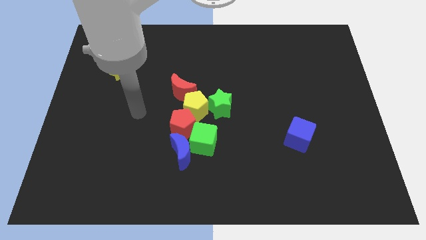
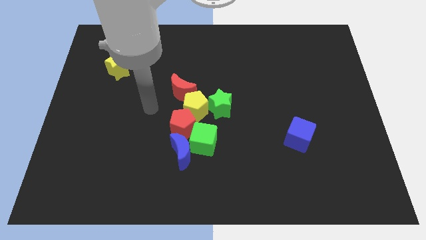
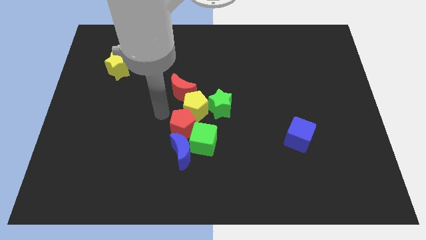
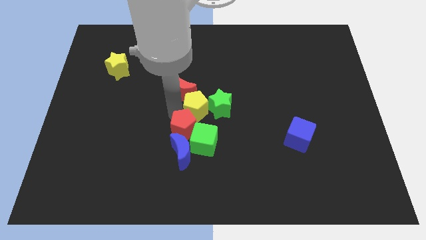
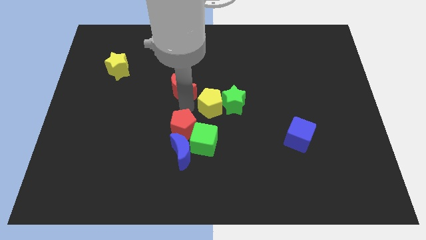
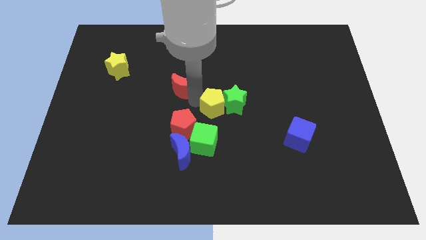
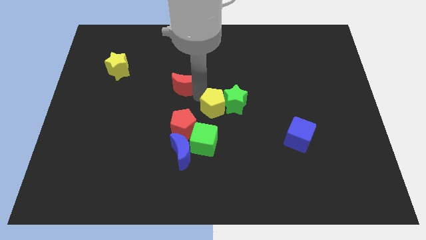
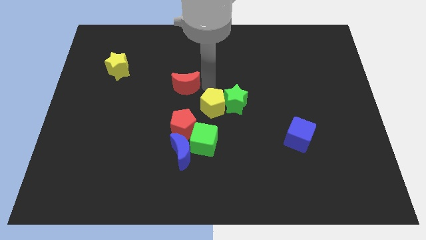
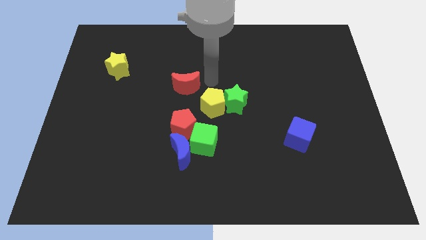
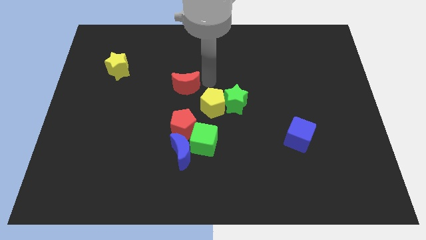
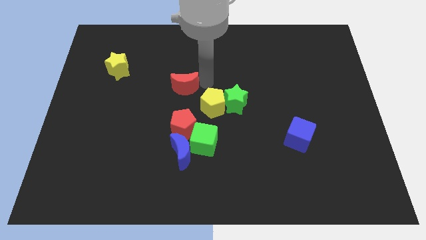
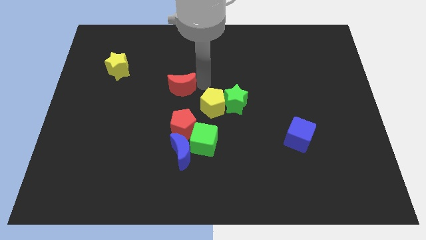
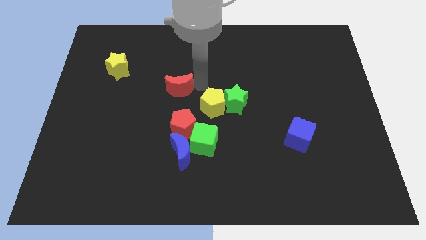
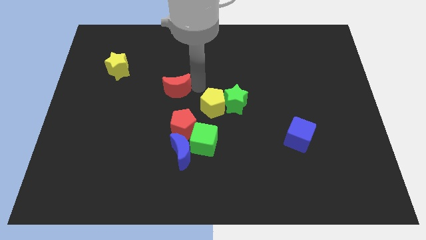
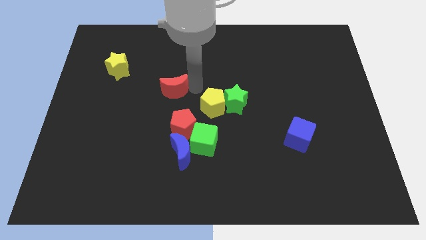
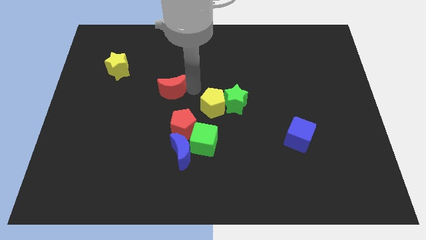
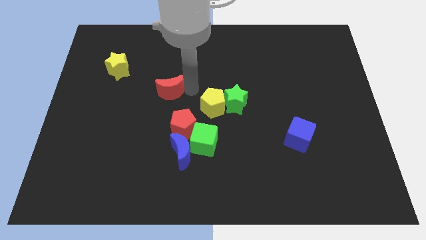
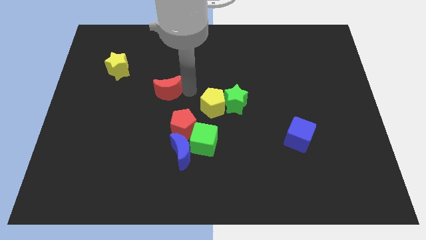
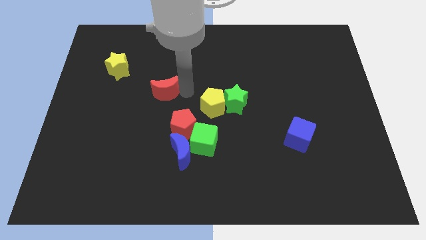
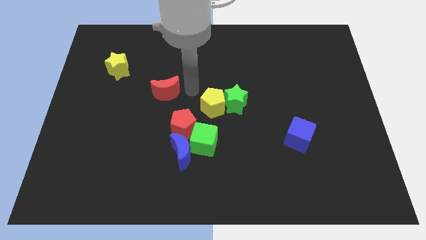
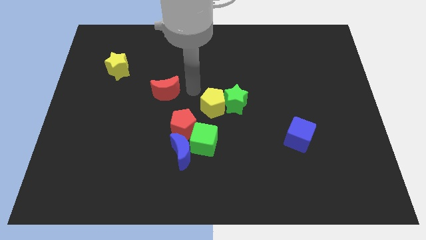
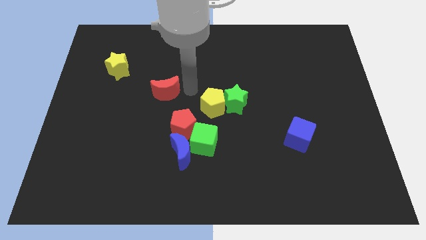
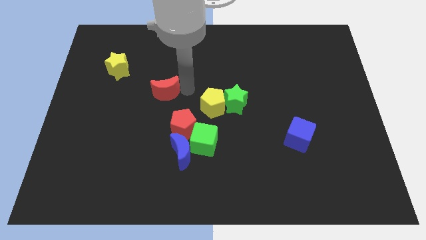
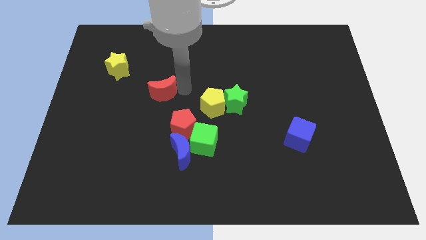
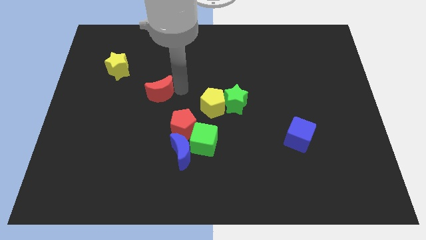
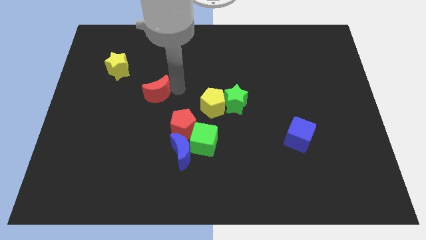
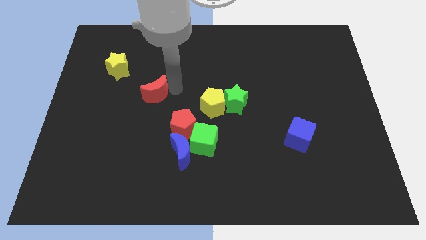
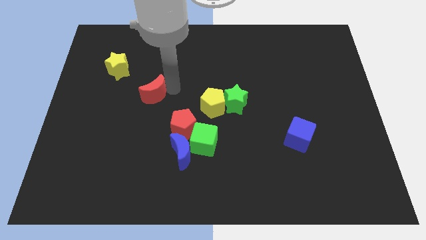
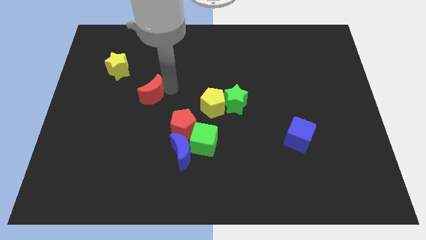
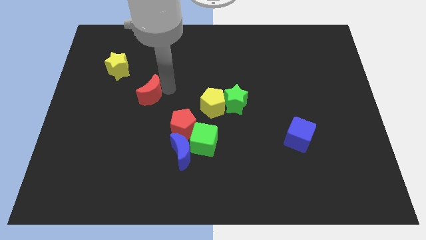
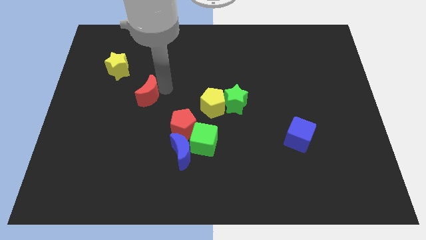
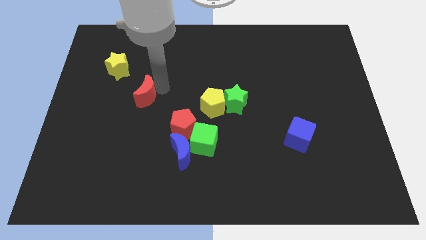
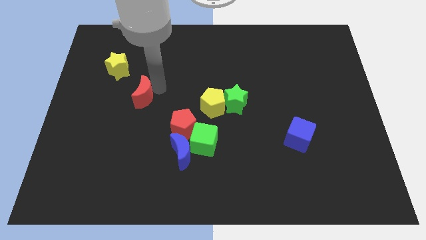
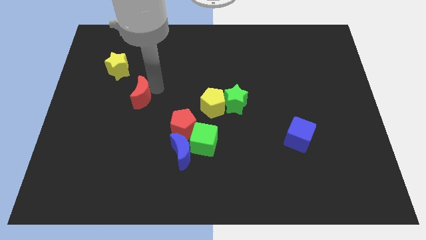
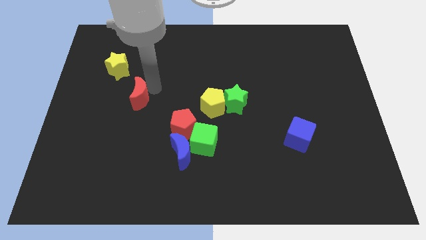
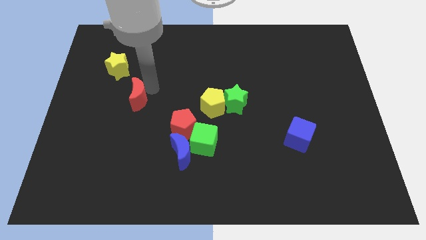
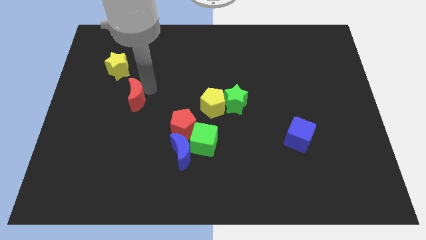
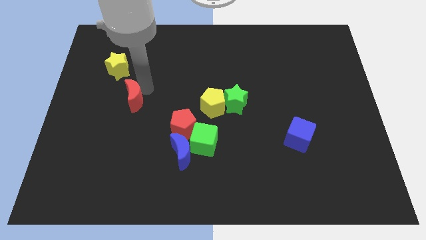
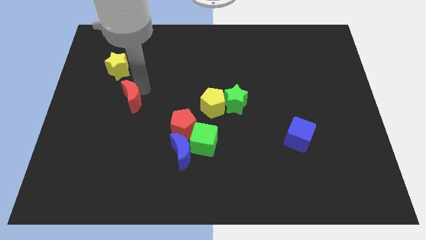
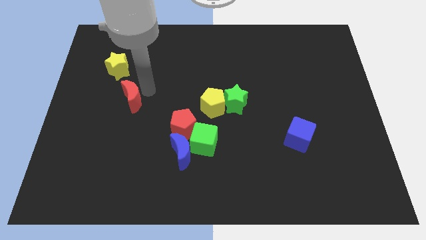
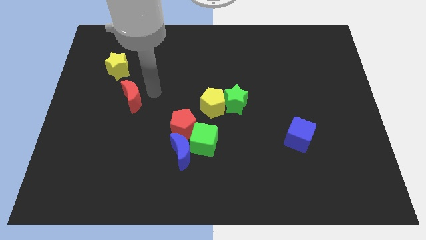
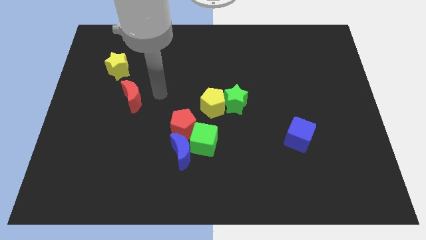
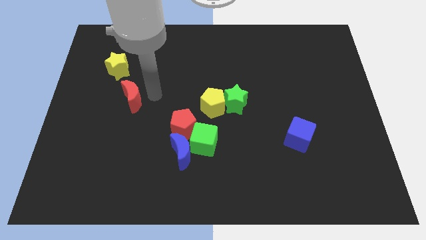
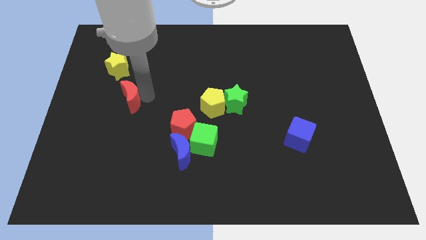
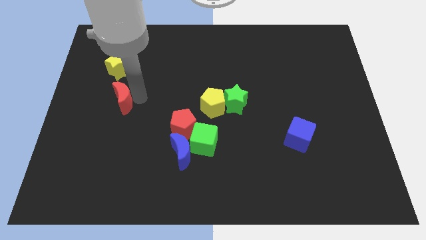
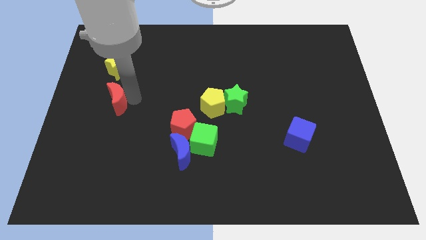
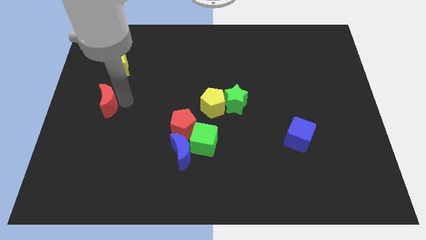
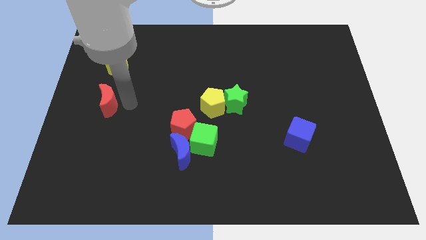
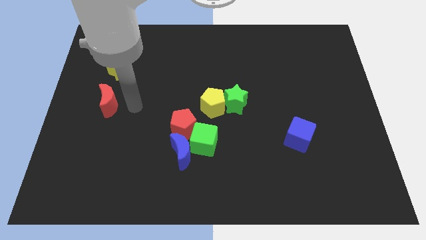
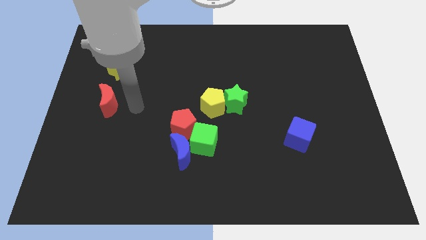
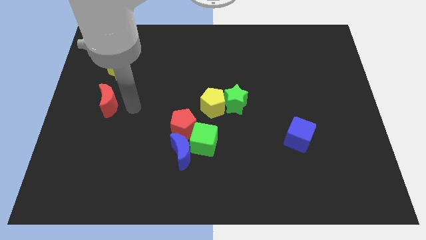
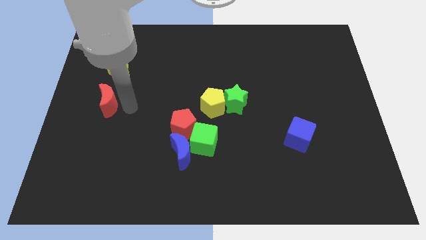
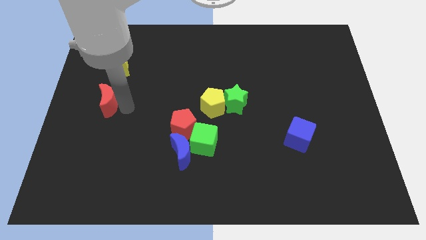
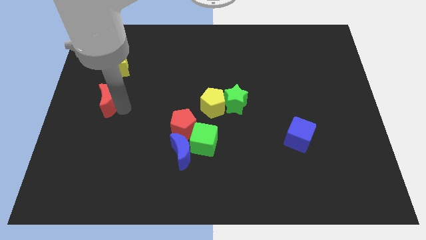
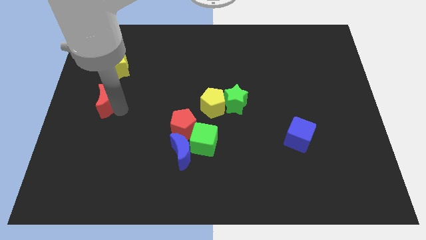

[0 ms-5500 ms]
put the red moon to the left side
